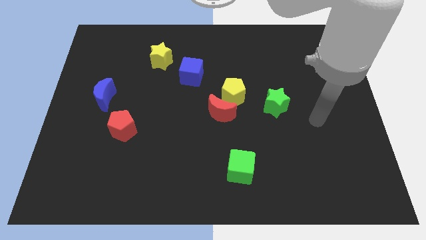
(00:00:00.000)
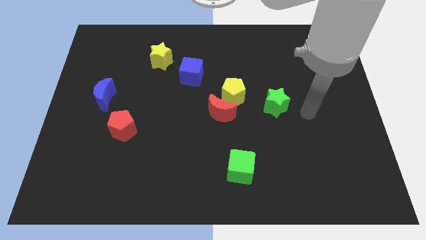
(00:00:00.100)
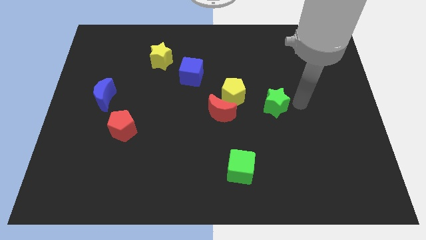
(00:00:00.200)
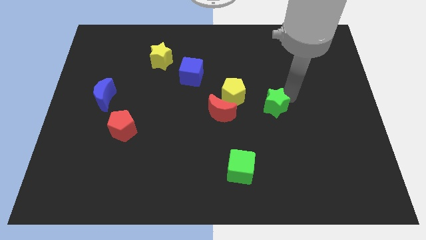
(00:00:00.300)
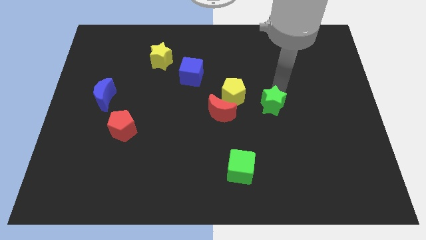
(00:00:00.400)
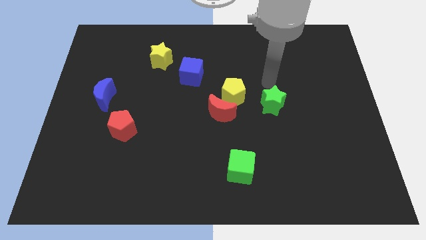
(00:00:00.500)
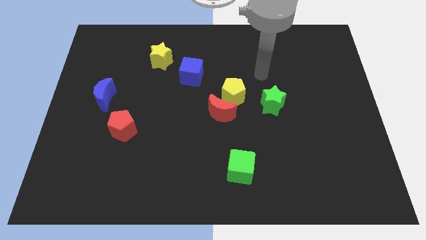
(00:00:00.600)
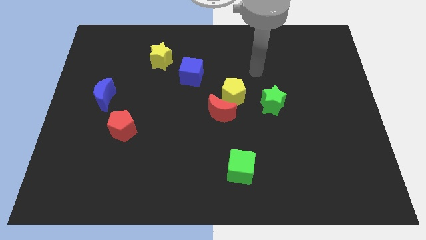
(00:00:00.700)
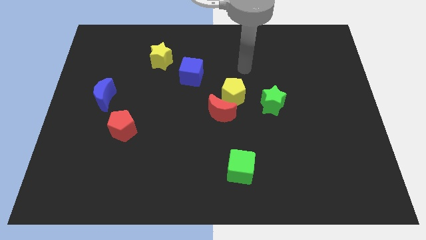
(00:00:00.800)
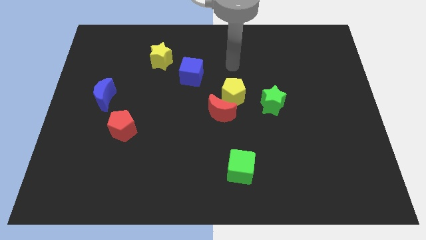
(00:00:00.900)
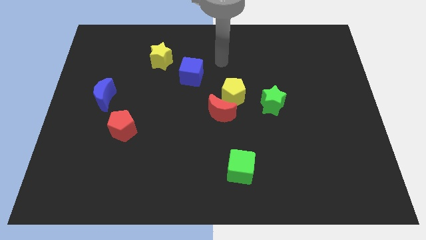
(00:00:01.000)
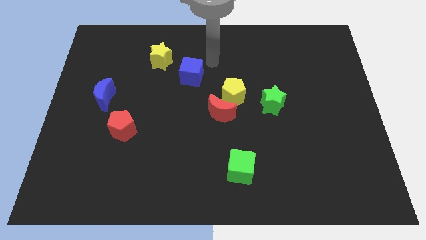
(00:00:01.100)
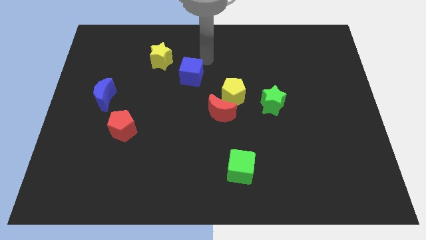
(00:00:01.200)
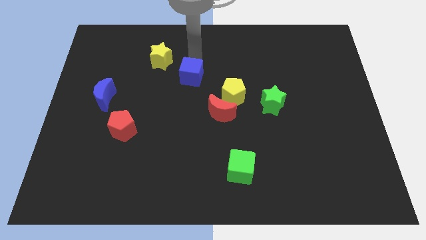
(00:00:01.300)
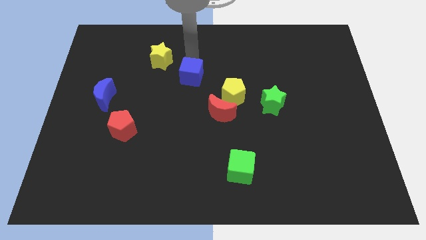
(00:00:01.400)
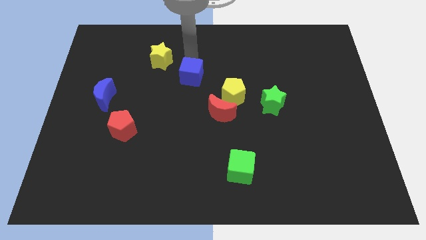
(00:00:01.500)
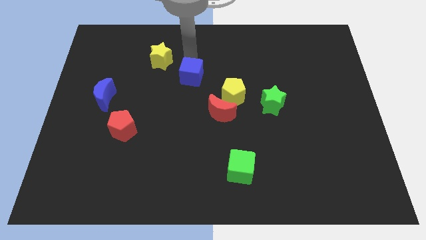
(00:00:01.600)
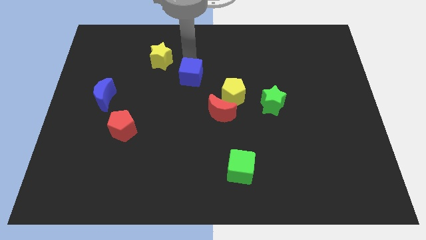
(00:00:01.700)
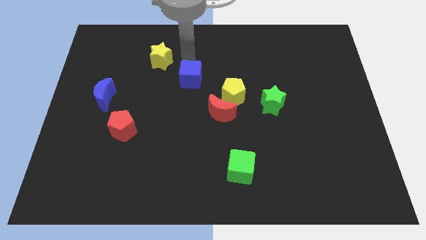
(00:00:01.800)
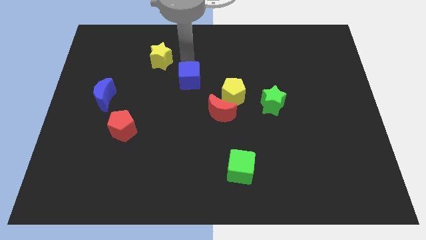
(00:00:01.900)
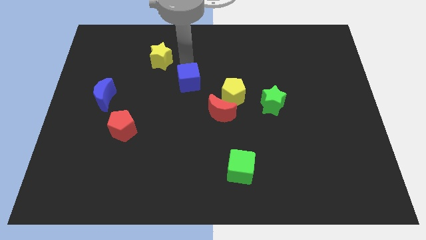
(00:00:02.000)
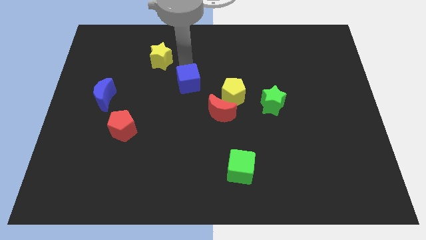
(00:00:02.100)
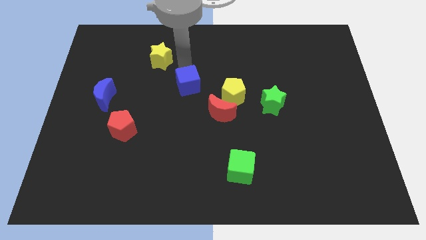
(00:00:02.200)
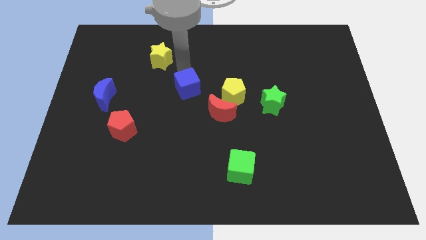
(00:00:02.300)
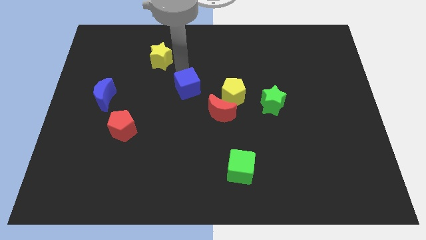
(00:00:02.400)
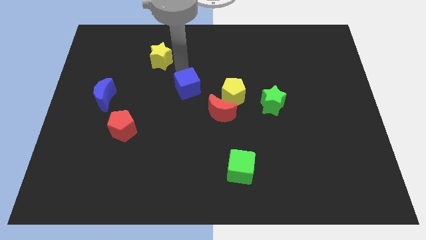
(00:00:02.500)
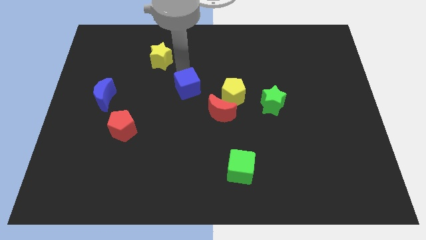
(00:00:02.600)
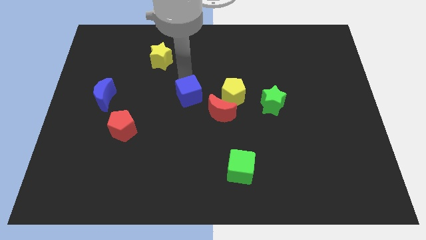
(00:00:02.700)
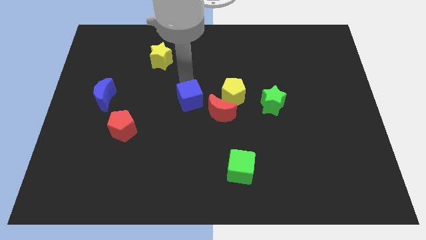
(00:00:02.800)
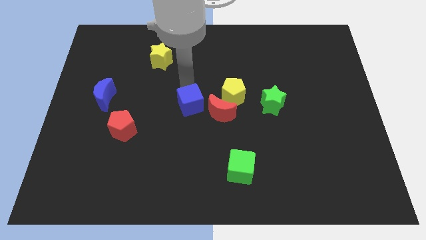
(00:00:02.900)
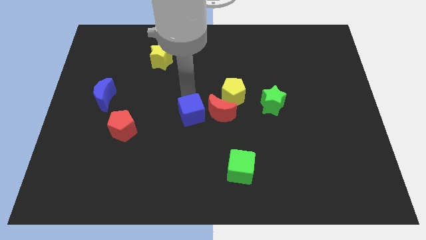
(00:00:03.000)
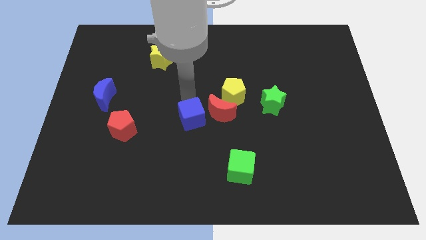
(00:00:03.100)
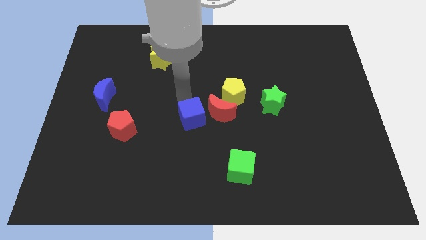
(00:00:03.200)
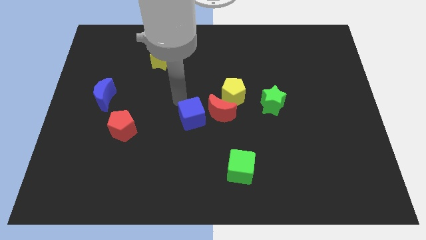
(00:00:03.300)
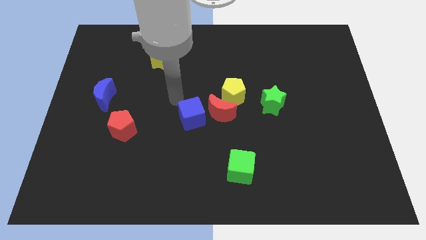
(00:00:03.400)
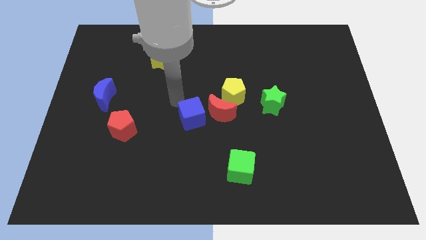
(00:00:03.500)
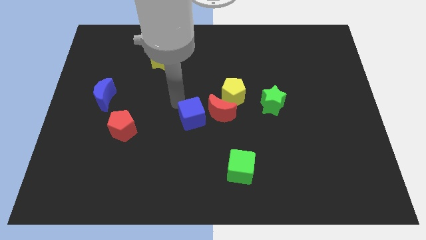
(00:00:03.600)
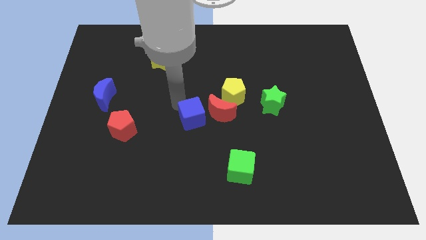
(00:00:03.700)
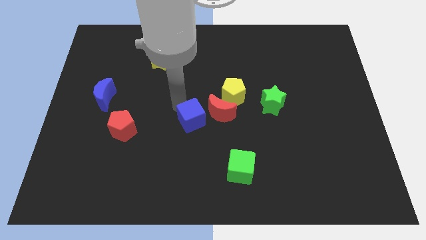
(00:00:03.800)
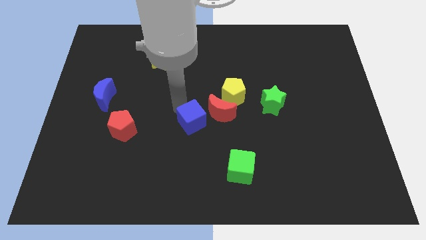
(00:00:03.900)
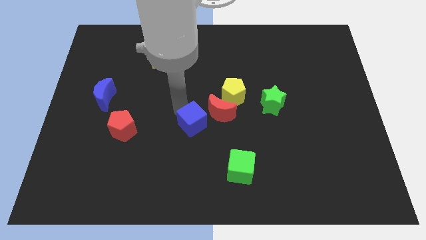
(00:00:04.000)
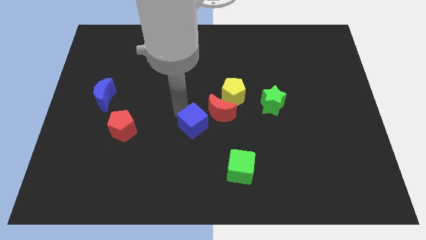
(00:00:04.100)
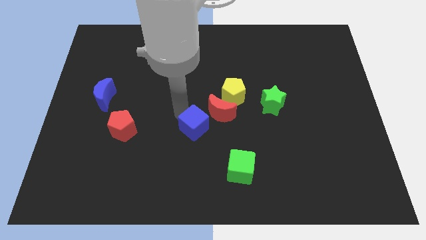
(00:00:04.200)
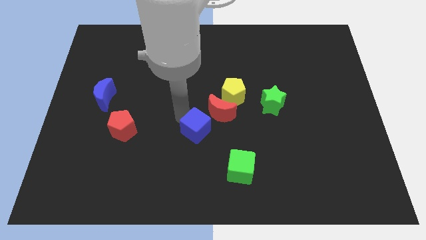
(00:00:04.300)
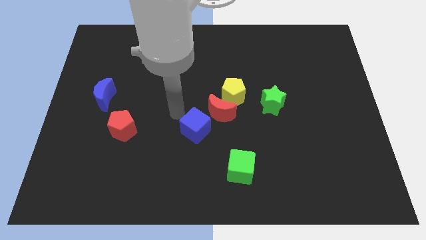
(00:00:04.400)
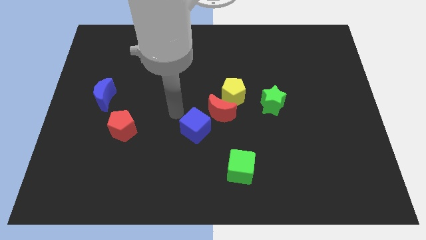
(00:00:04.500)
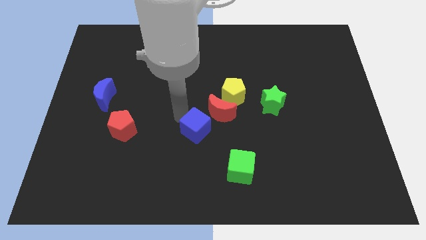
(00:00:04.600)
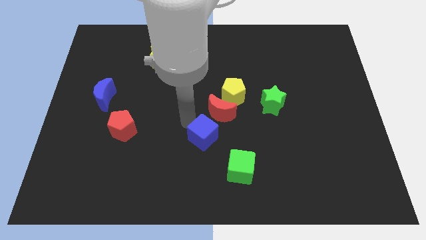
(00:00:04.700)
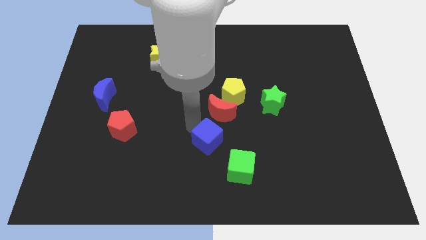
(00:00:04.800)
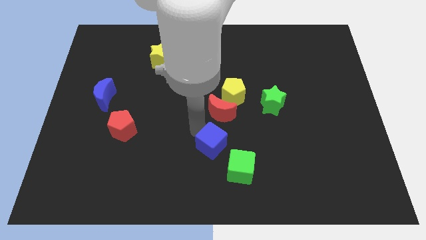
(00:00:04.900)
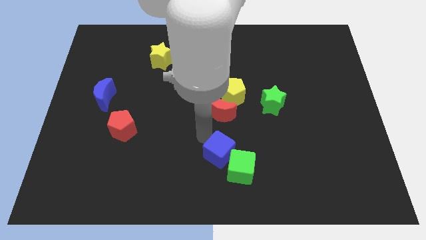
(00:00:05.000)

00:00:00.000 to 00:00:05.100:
slide the blue cube next to the green cube

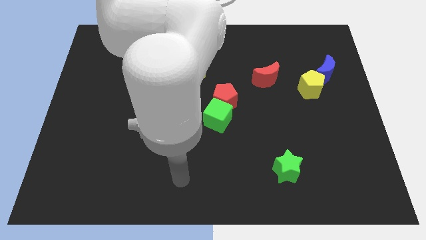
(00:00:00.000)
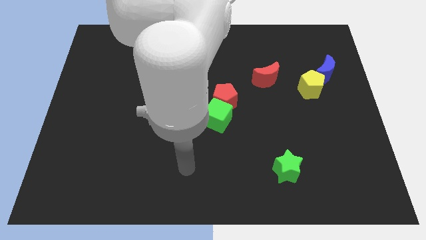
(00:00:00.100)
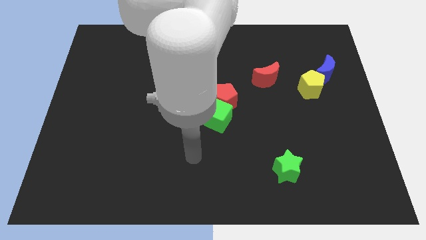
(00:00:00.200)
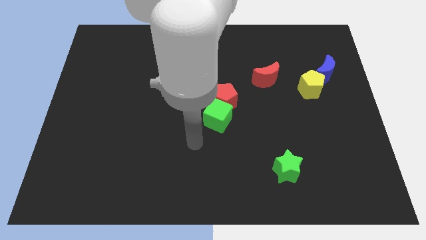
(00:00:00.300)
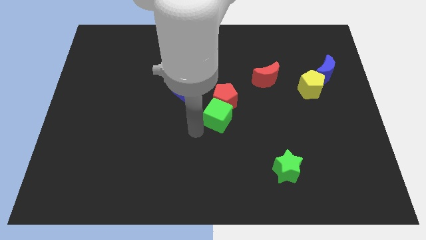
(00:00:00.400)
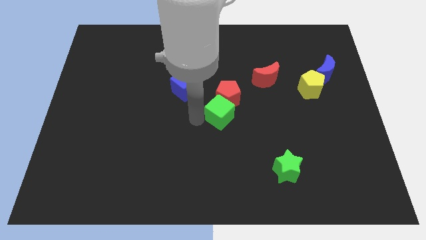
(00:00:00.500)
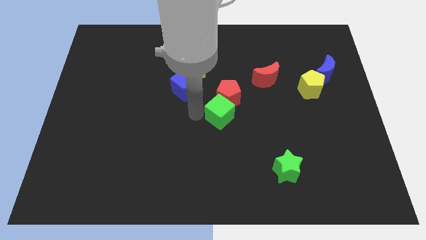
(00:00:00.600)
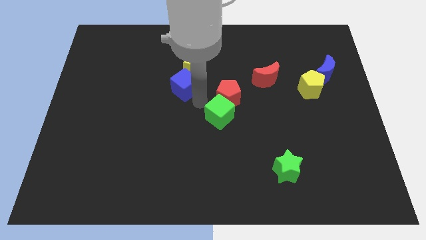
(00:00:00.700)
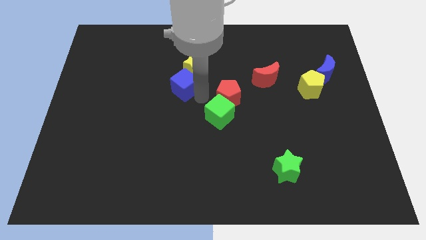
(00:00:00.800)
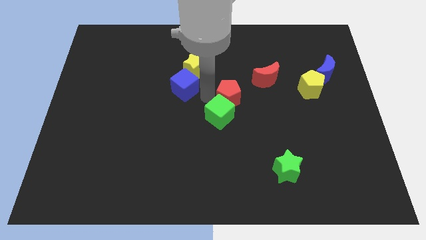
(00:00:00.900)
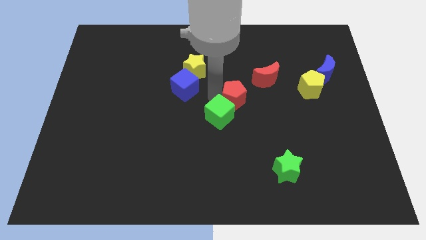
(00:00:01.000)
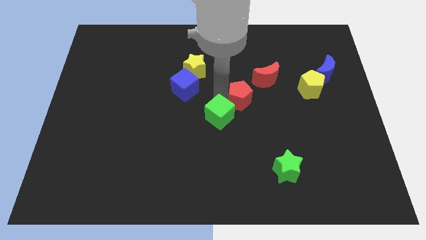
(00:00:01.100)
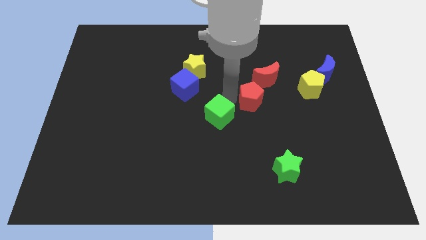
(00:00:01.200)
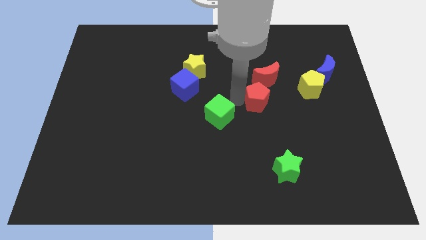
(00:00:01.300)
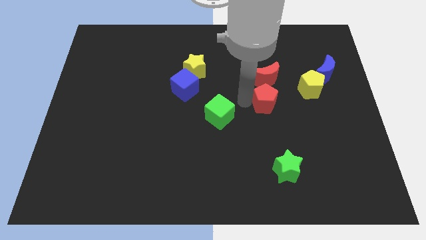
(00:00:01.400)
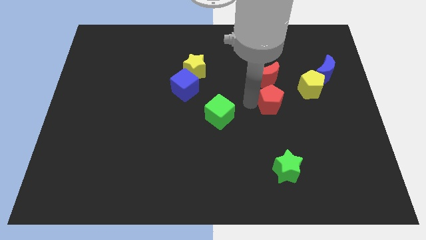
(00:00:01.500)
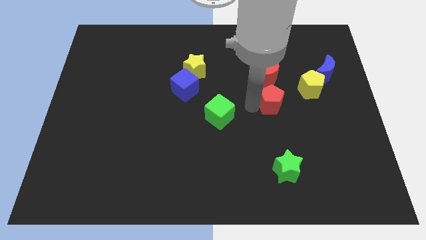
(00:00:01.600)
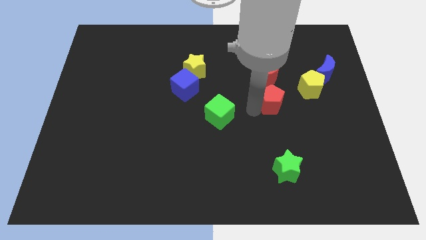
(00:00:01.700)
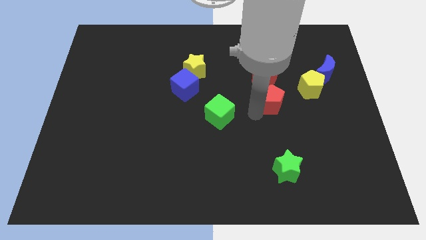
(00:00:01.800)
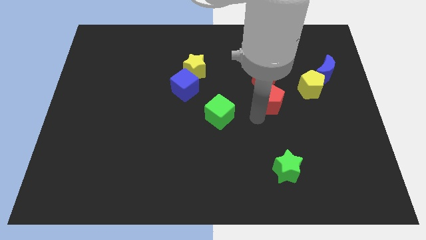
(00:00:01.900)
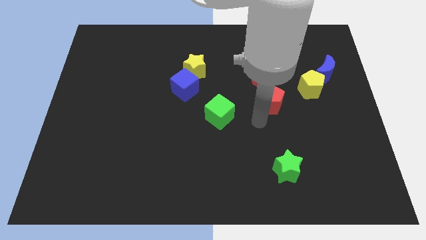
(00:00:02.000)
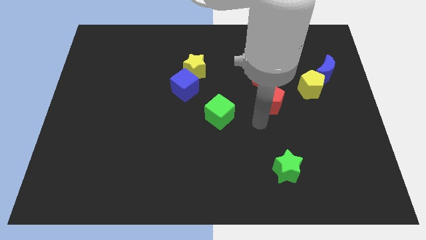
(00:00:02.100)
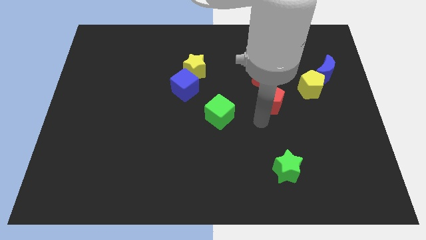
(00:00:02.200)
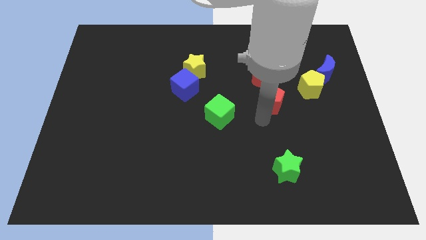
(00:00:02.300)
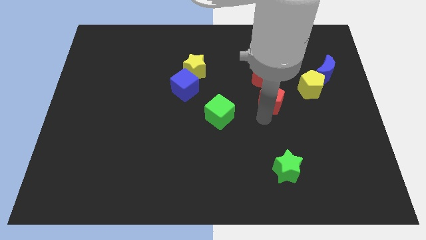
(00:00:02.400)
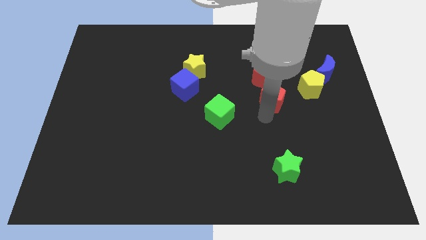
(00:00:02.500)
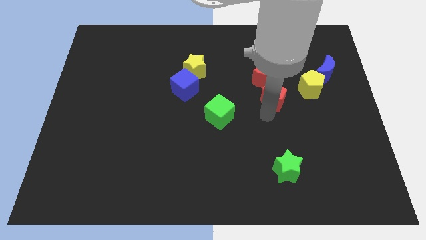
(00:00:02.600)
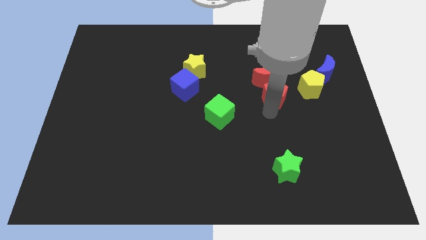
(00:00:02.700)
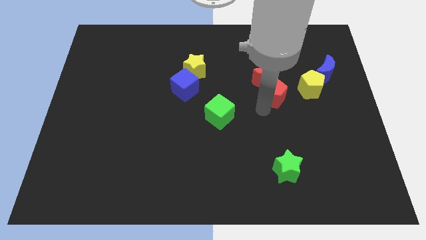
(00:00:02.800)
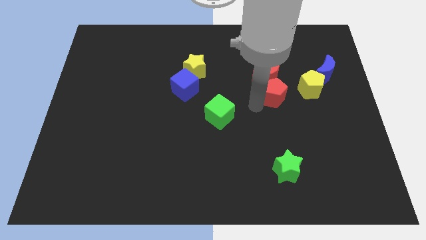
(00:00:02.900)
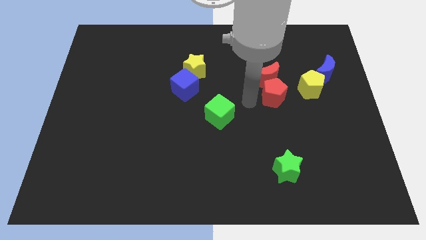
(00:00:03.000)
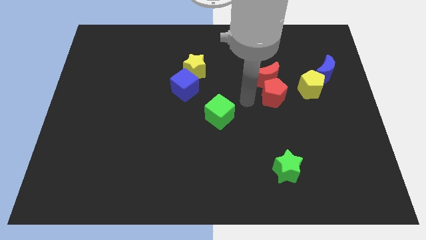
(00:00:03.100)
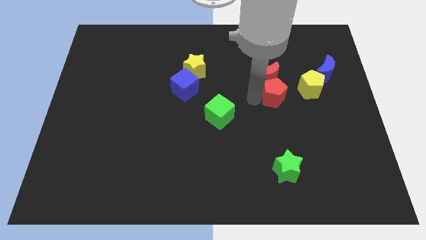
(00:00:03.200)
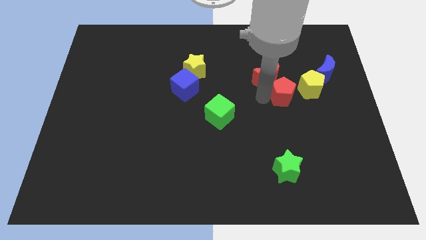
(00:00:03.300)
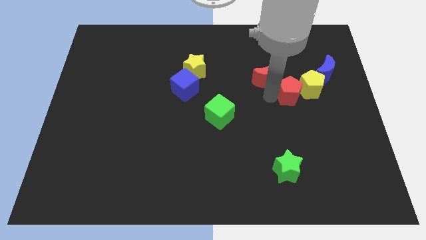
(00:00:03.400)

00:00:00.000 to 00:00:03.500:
put the red pentagon to the yellow pentagon
